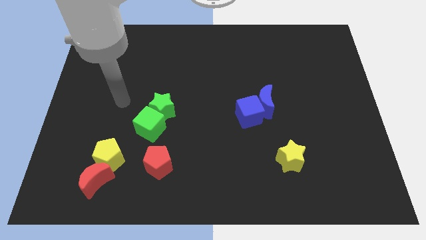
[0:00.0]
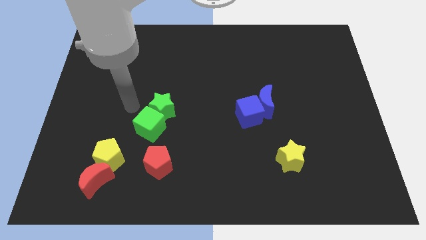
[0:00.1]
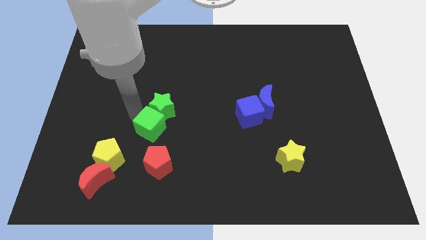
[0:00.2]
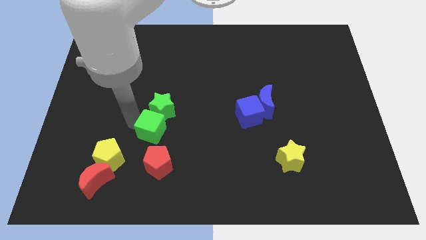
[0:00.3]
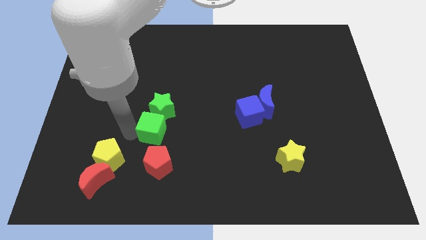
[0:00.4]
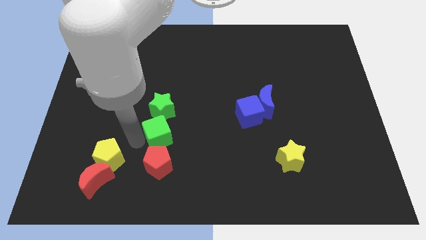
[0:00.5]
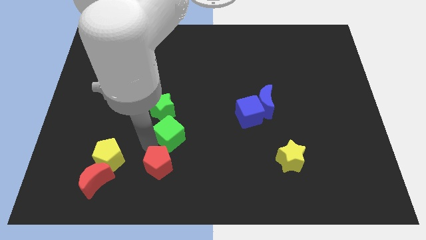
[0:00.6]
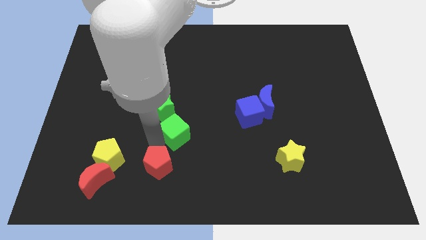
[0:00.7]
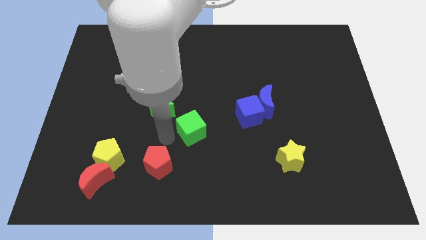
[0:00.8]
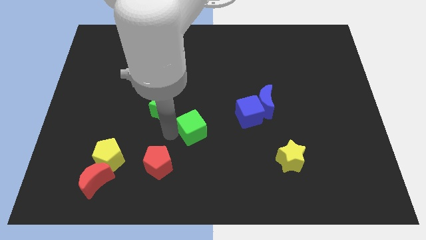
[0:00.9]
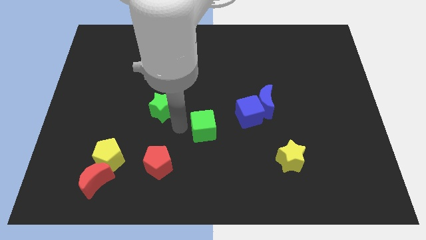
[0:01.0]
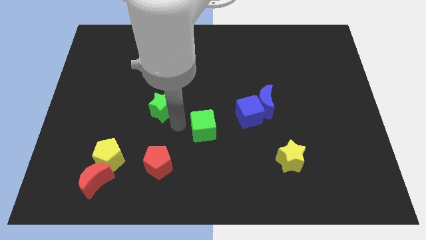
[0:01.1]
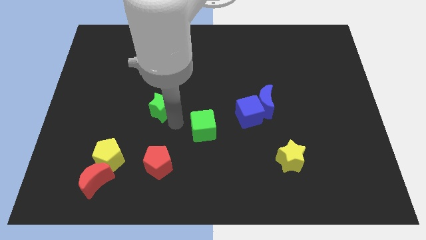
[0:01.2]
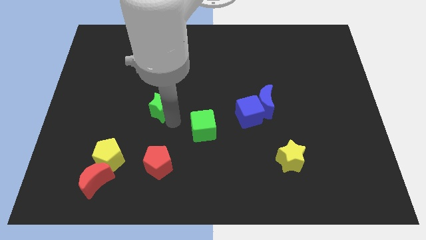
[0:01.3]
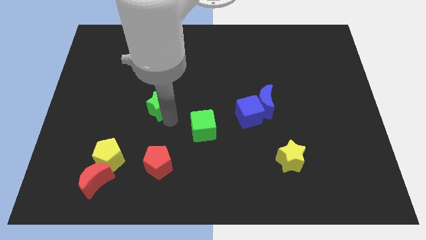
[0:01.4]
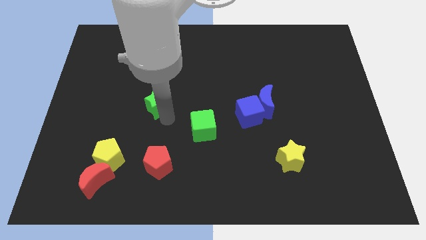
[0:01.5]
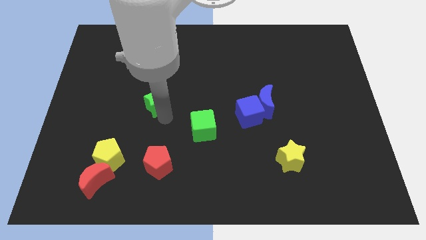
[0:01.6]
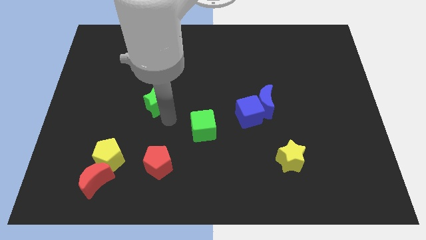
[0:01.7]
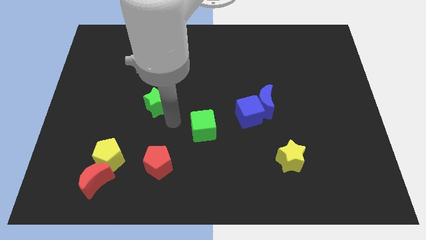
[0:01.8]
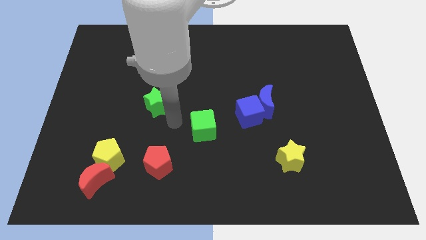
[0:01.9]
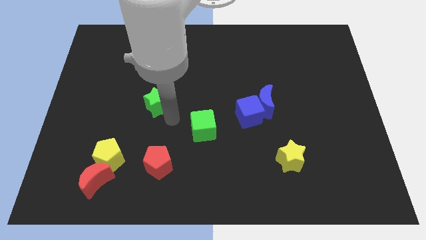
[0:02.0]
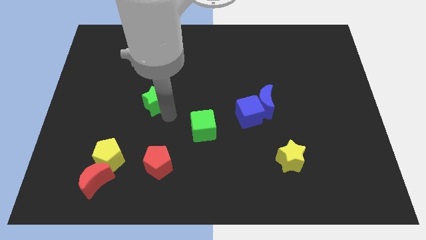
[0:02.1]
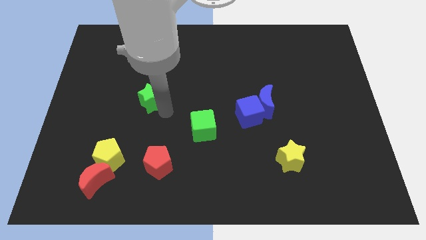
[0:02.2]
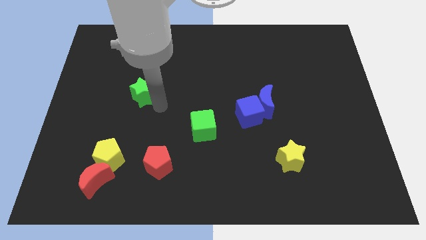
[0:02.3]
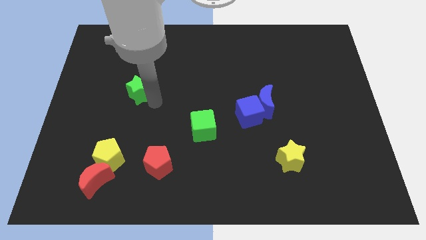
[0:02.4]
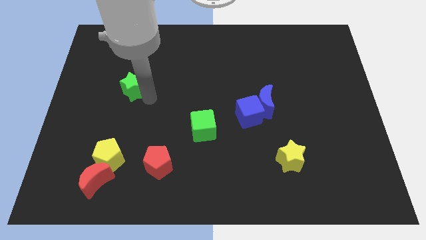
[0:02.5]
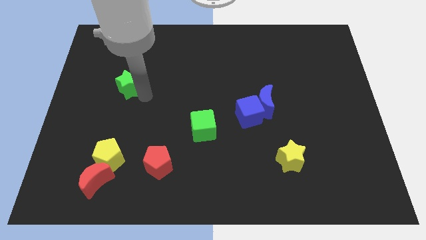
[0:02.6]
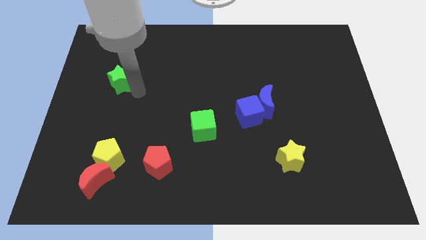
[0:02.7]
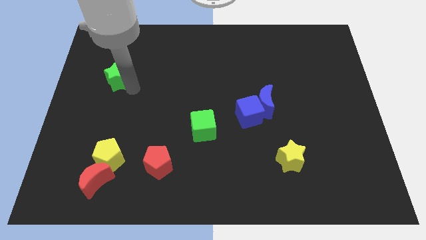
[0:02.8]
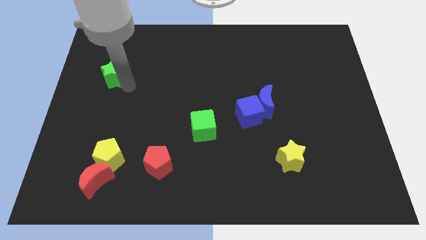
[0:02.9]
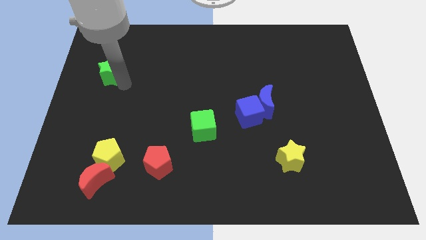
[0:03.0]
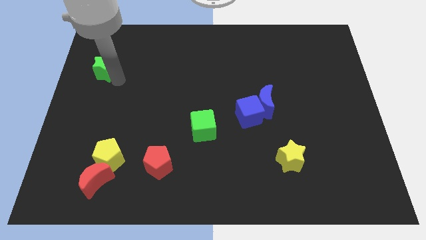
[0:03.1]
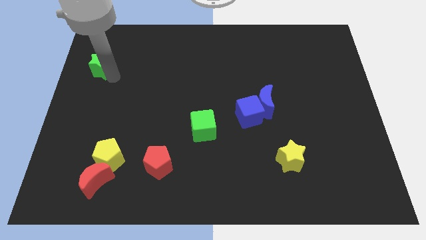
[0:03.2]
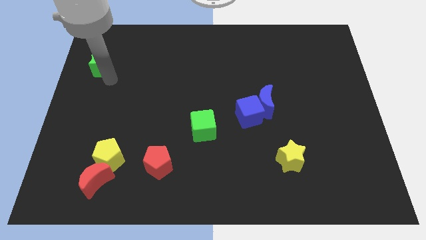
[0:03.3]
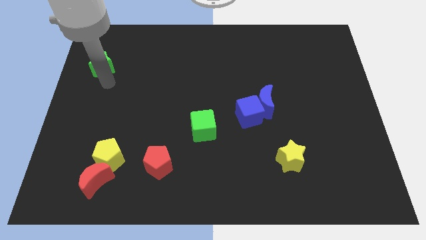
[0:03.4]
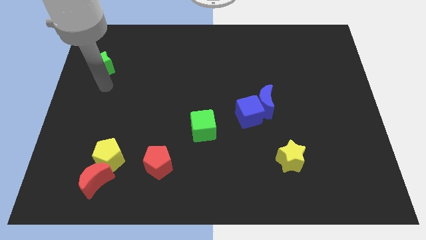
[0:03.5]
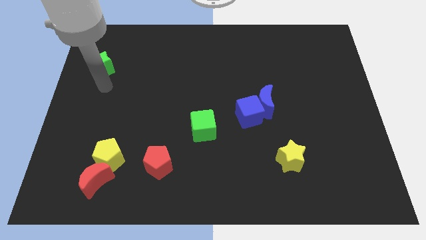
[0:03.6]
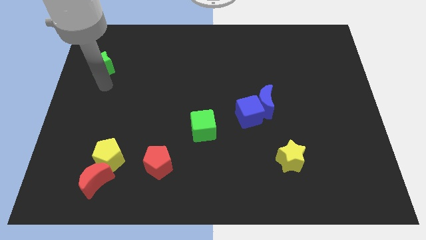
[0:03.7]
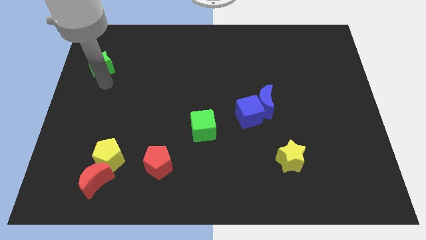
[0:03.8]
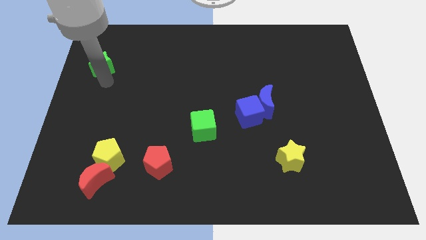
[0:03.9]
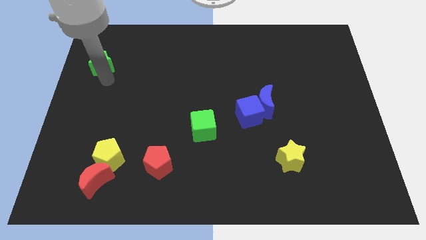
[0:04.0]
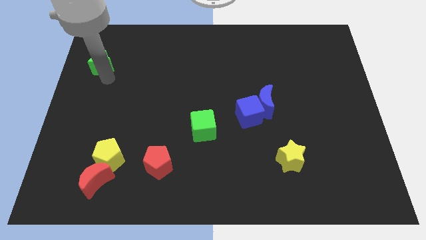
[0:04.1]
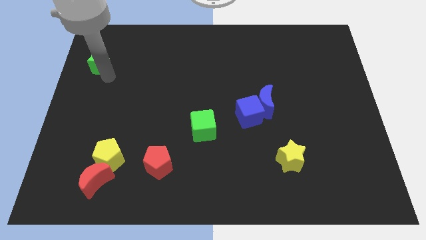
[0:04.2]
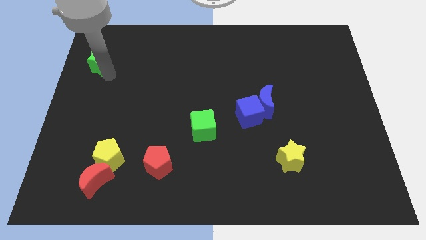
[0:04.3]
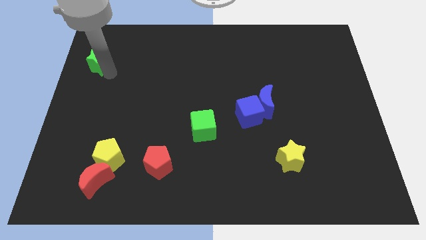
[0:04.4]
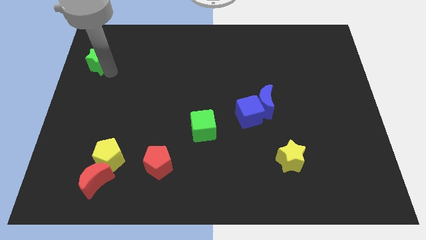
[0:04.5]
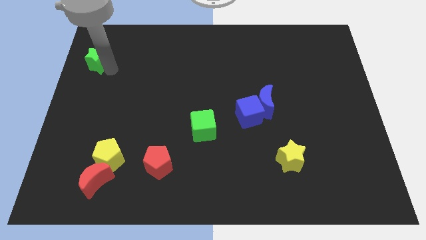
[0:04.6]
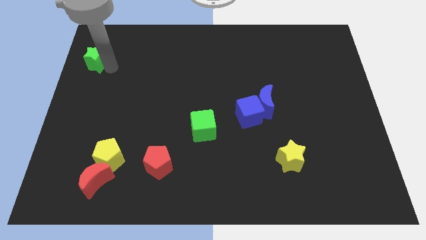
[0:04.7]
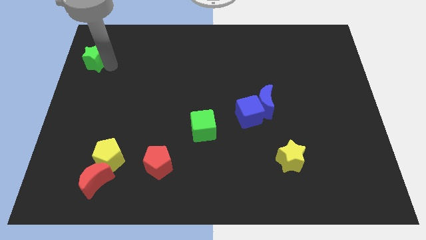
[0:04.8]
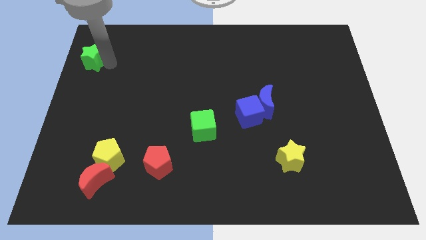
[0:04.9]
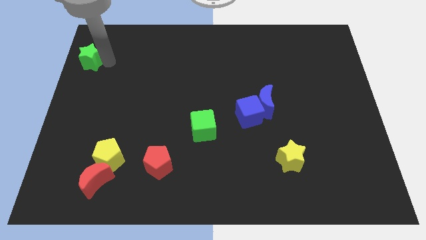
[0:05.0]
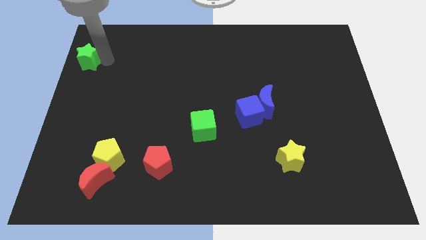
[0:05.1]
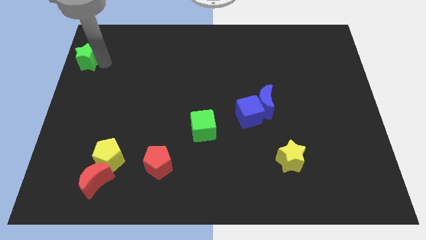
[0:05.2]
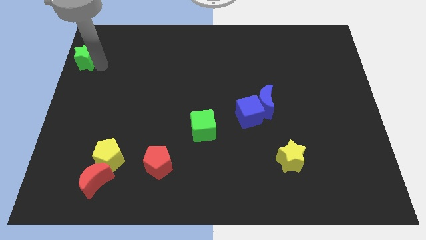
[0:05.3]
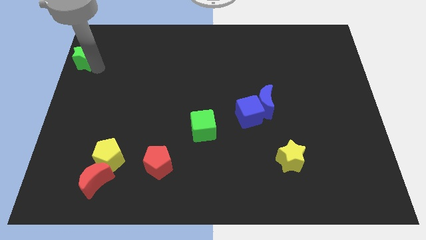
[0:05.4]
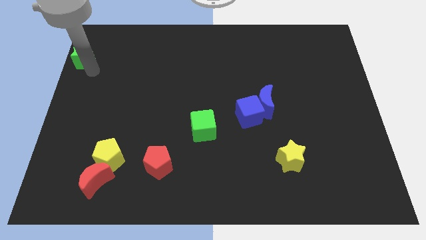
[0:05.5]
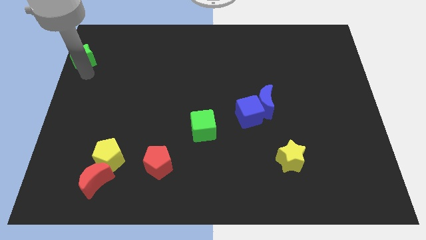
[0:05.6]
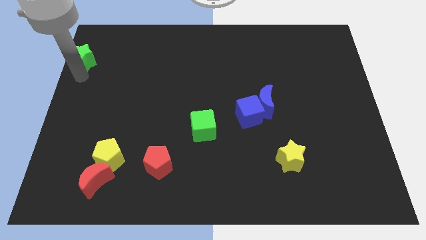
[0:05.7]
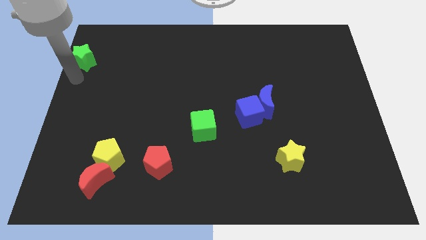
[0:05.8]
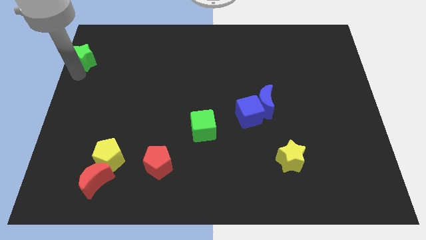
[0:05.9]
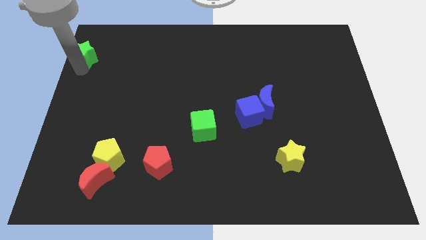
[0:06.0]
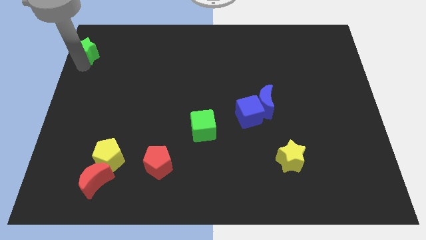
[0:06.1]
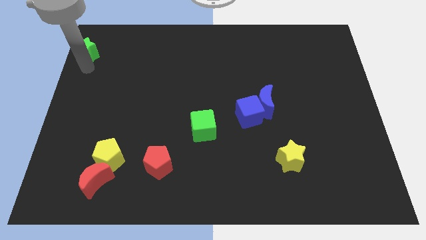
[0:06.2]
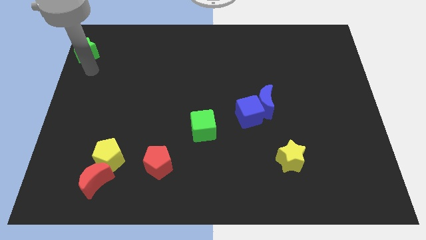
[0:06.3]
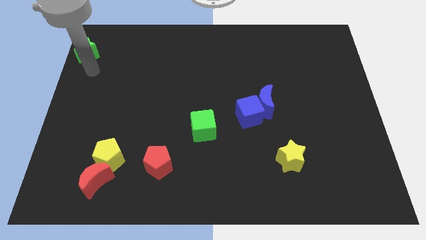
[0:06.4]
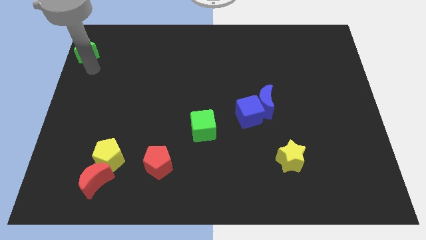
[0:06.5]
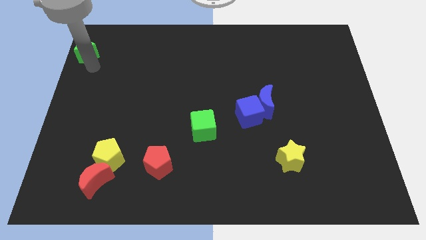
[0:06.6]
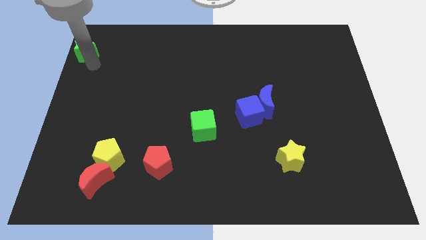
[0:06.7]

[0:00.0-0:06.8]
put the green star to the top left corner

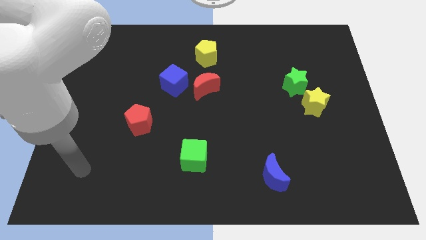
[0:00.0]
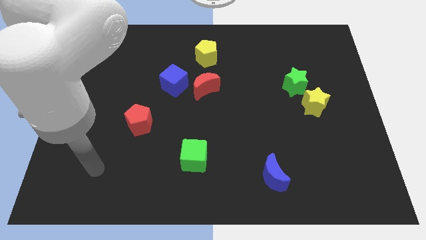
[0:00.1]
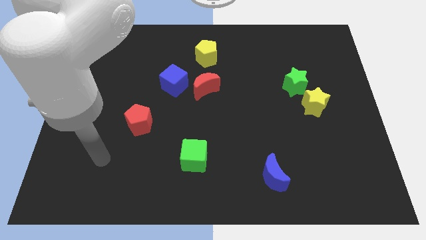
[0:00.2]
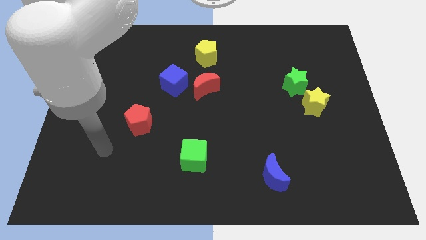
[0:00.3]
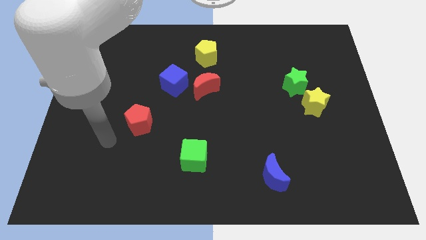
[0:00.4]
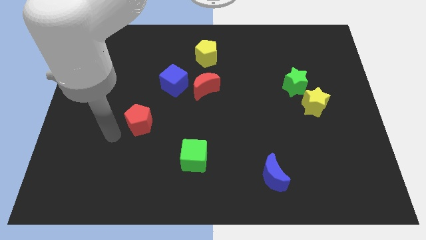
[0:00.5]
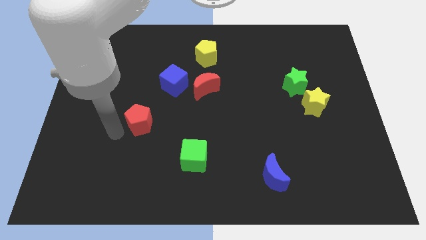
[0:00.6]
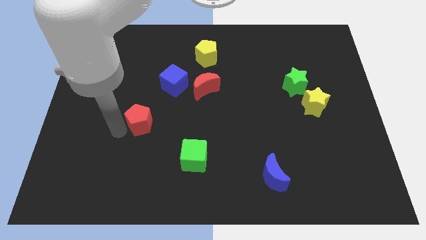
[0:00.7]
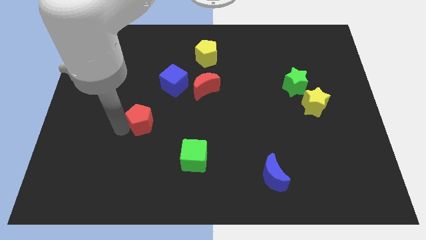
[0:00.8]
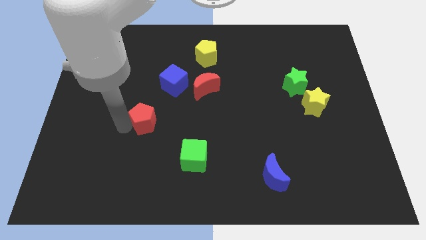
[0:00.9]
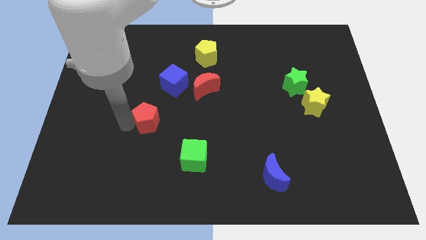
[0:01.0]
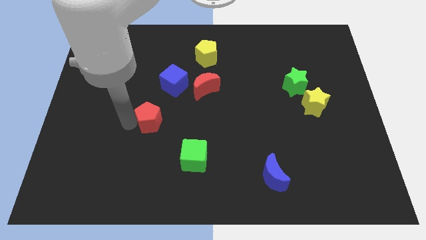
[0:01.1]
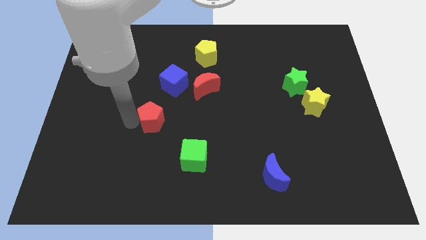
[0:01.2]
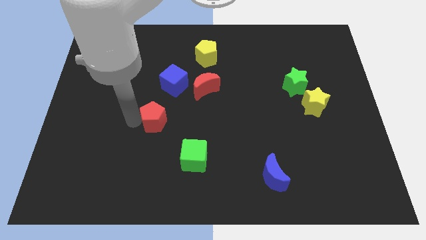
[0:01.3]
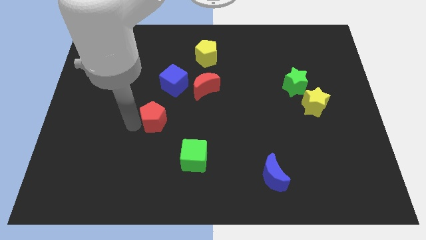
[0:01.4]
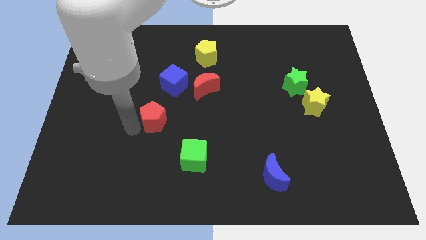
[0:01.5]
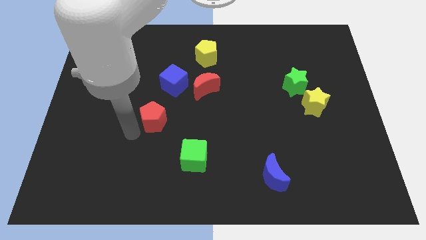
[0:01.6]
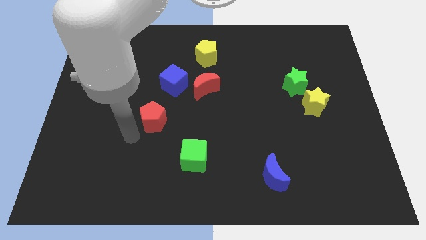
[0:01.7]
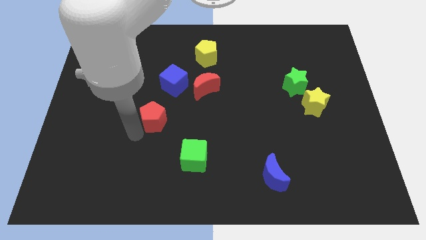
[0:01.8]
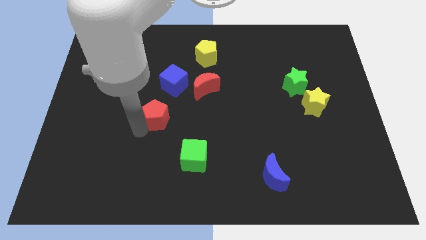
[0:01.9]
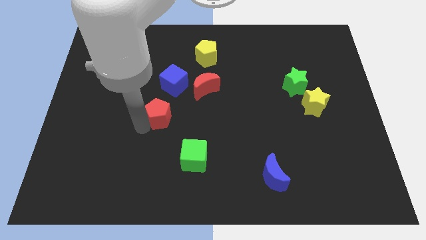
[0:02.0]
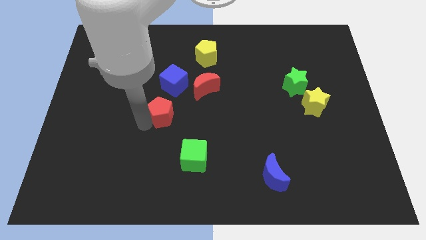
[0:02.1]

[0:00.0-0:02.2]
slide the red pentagon to the middle of the board
